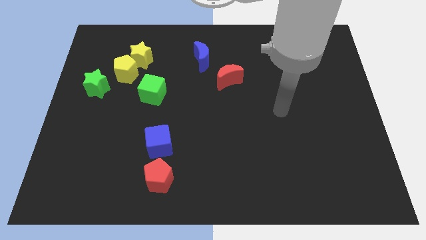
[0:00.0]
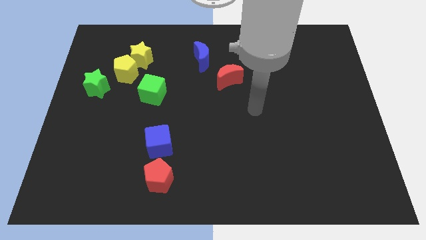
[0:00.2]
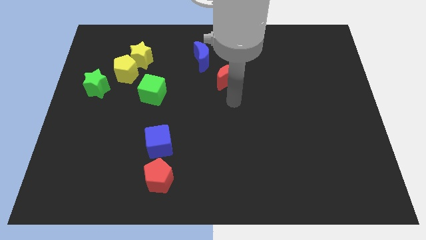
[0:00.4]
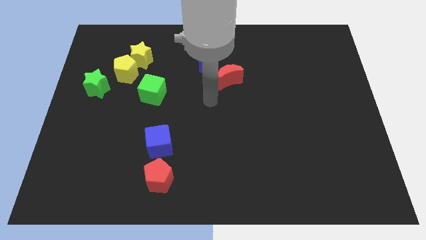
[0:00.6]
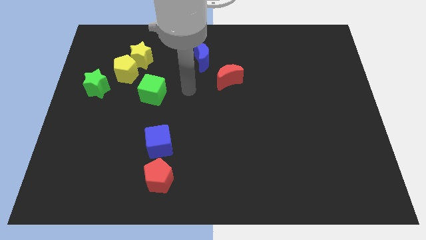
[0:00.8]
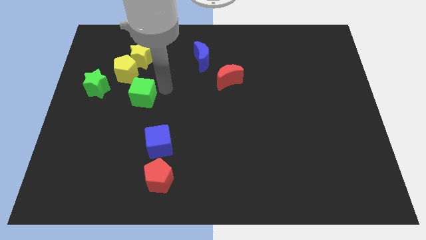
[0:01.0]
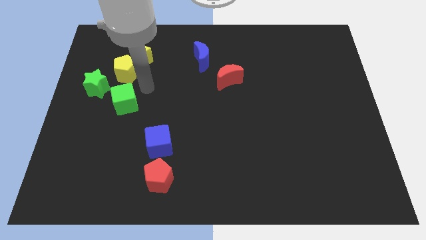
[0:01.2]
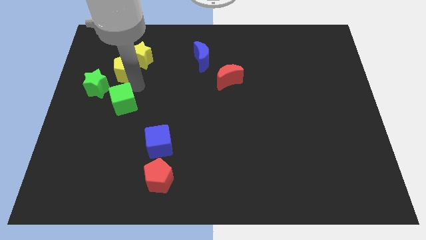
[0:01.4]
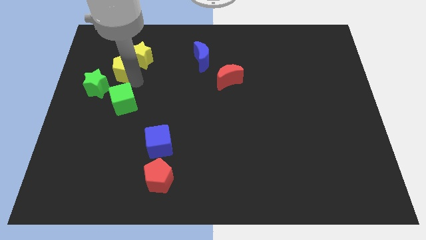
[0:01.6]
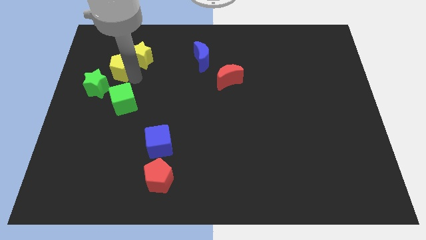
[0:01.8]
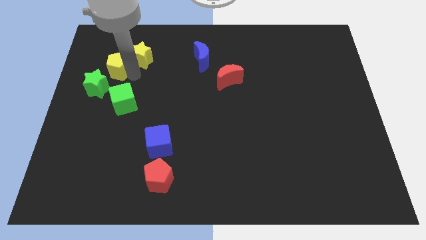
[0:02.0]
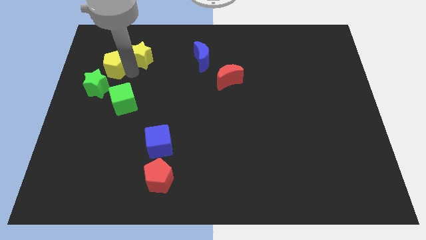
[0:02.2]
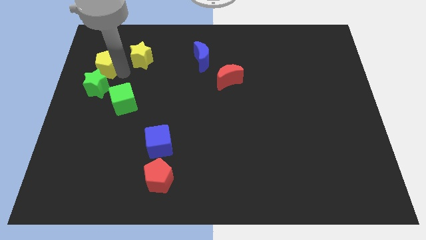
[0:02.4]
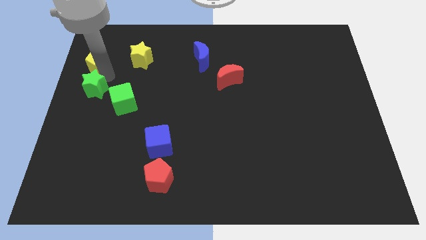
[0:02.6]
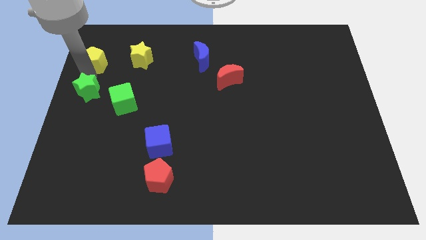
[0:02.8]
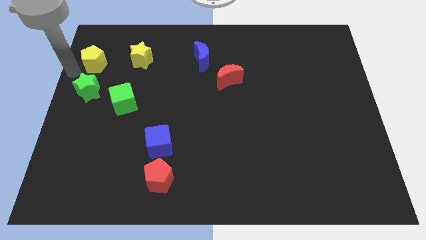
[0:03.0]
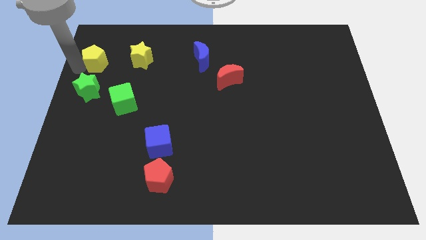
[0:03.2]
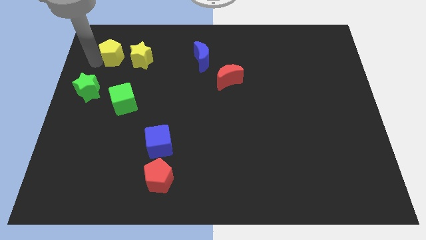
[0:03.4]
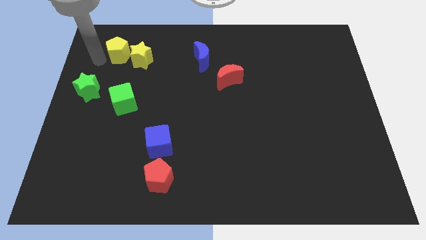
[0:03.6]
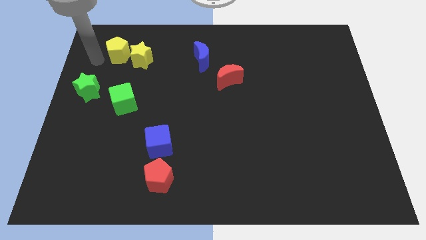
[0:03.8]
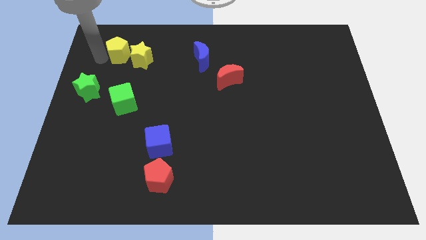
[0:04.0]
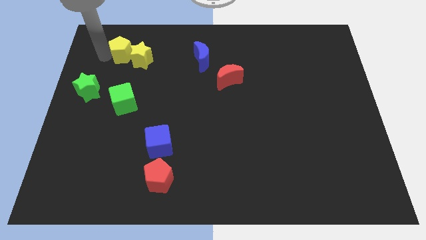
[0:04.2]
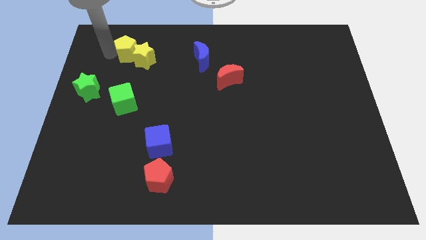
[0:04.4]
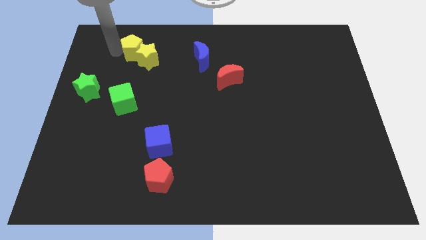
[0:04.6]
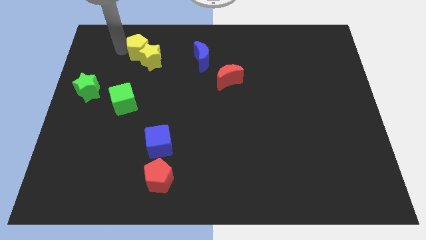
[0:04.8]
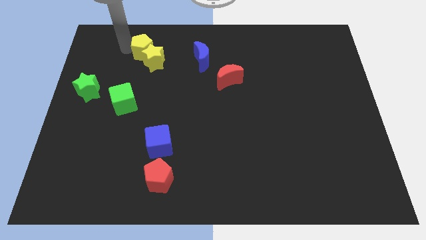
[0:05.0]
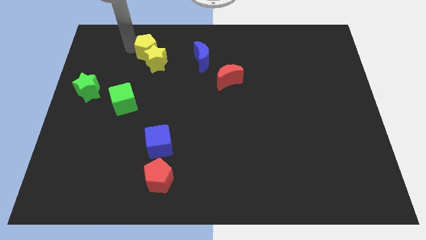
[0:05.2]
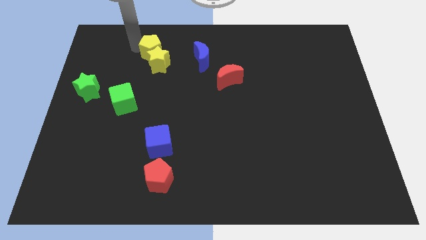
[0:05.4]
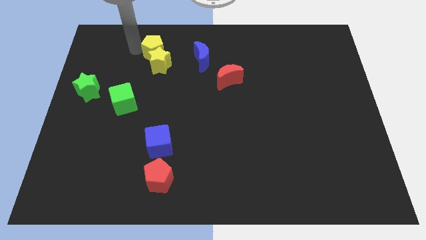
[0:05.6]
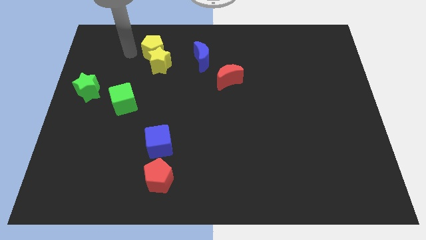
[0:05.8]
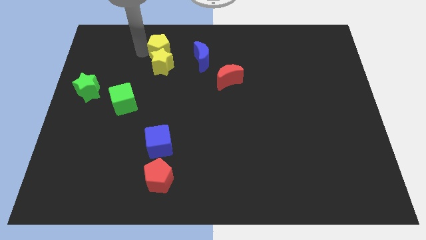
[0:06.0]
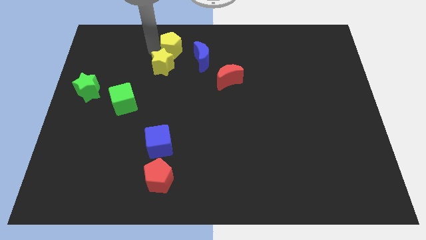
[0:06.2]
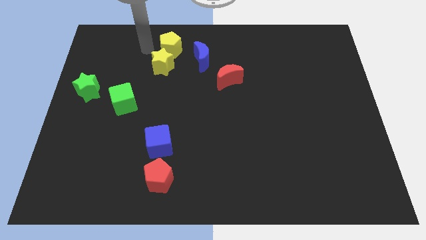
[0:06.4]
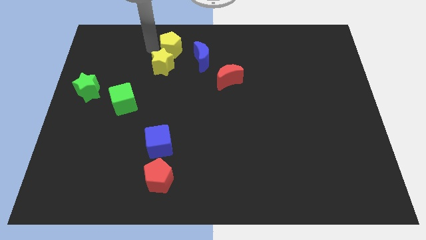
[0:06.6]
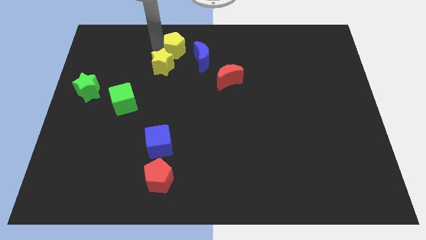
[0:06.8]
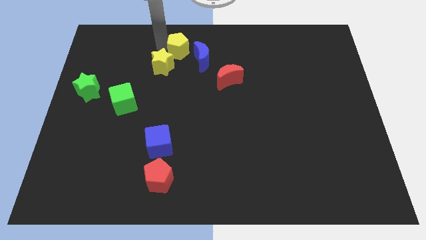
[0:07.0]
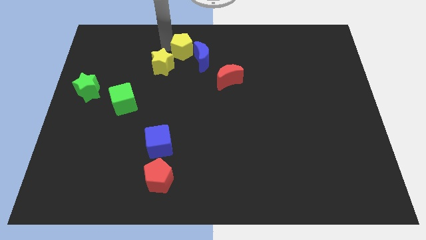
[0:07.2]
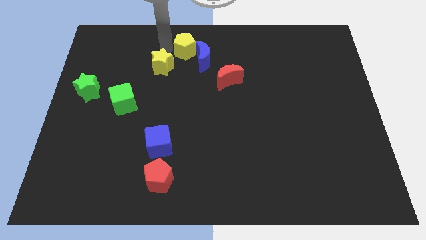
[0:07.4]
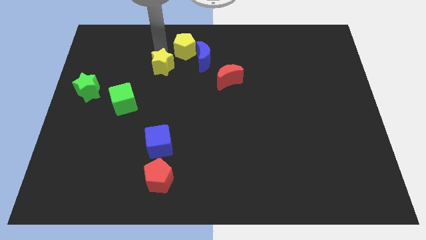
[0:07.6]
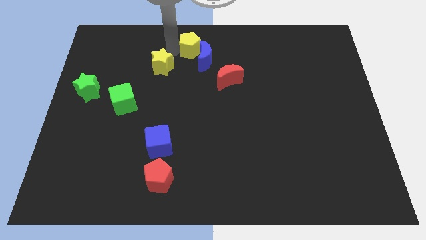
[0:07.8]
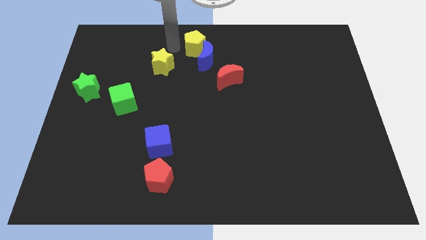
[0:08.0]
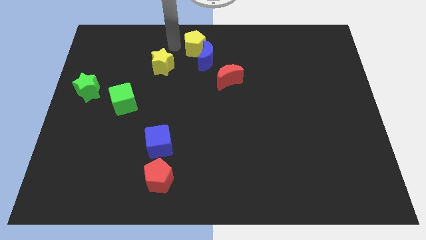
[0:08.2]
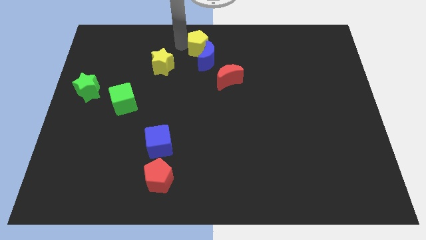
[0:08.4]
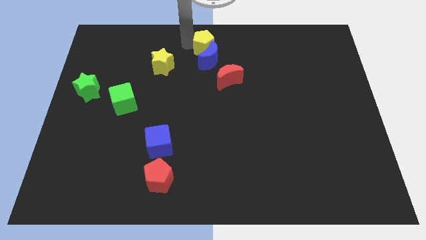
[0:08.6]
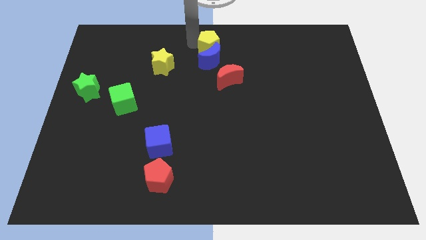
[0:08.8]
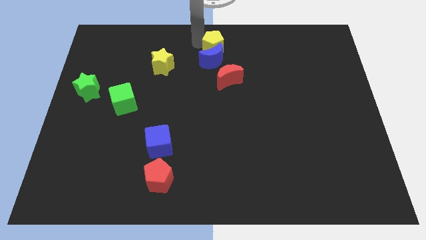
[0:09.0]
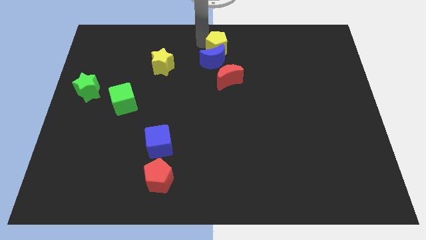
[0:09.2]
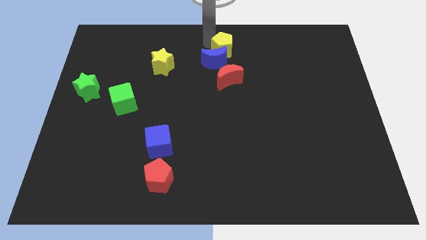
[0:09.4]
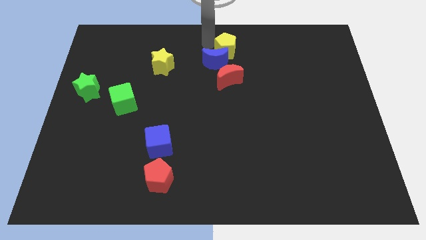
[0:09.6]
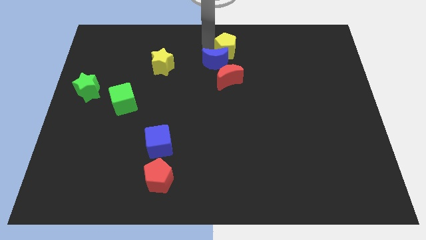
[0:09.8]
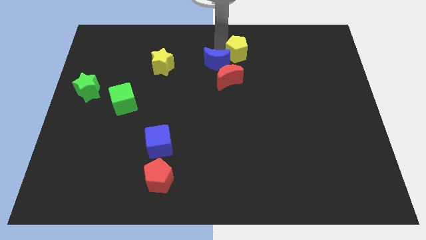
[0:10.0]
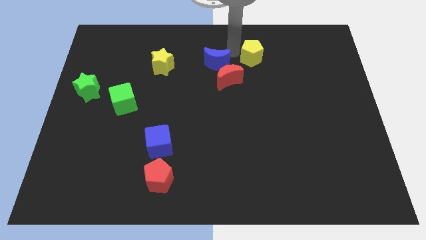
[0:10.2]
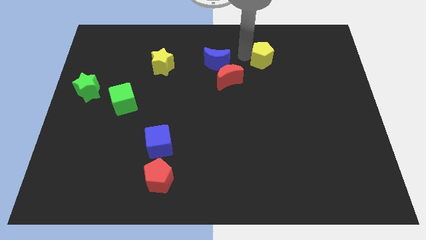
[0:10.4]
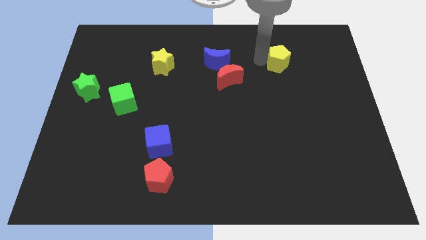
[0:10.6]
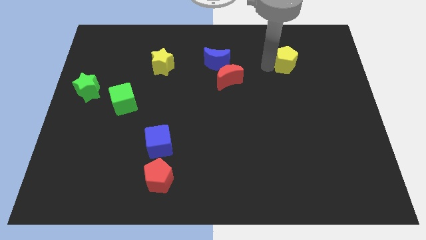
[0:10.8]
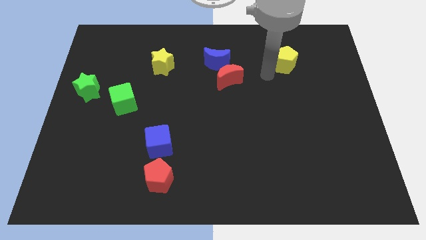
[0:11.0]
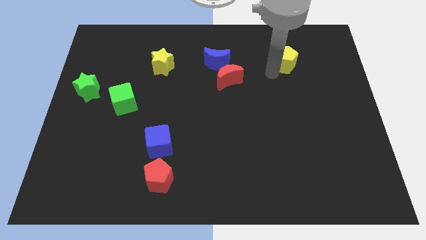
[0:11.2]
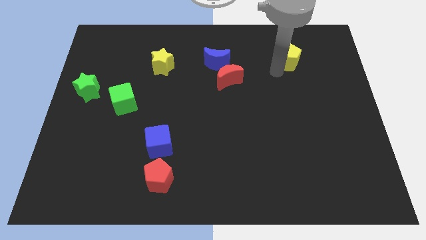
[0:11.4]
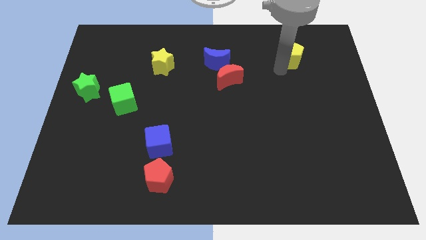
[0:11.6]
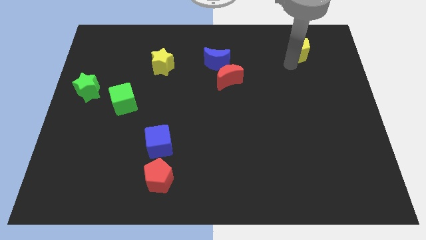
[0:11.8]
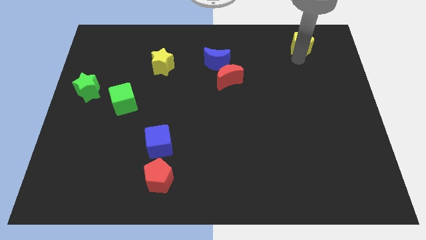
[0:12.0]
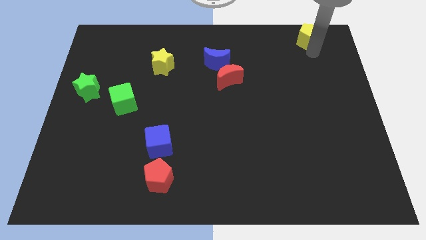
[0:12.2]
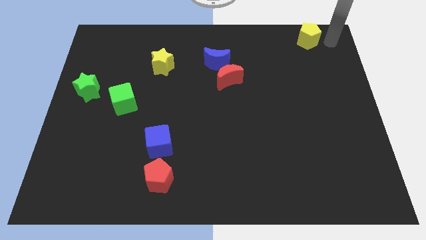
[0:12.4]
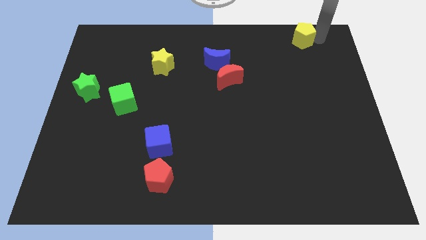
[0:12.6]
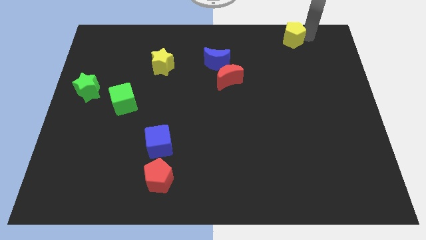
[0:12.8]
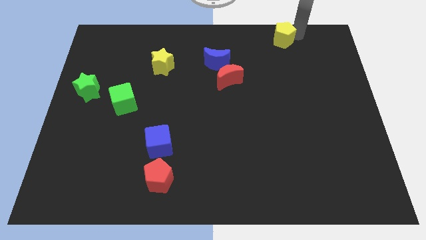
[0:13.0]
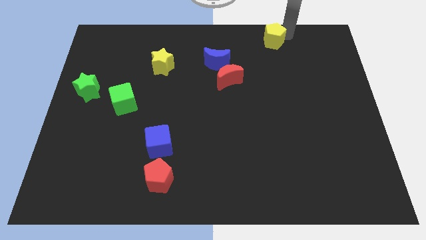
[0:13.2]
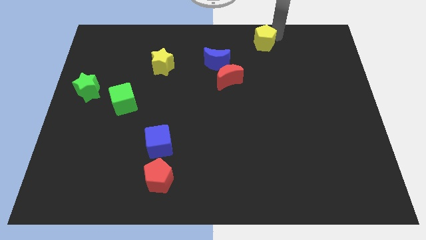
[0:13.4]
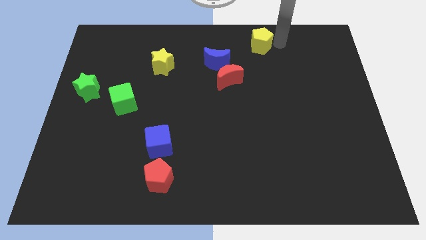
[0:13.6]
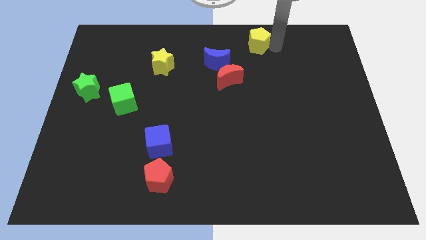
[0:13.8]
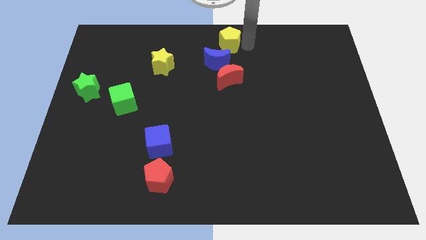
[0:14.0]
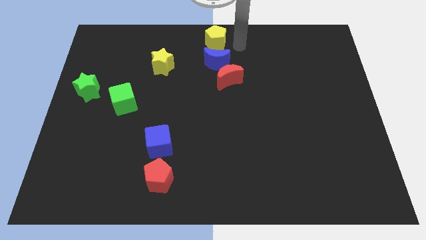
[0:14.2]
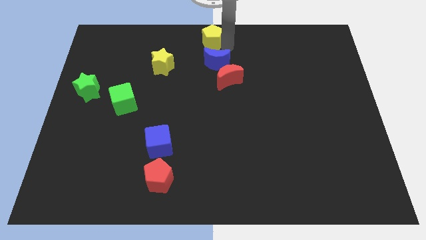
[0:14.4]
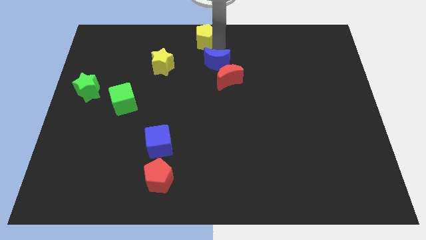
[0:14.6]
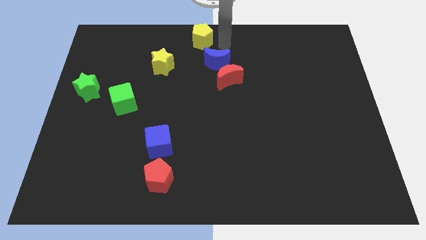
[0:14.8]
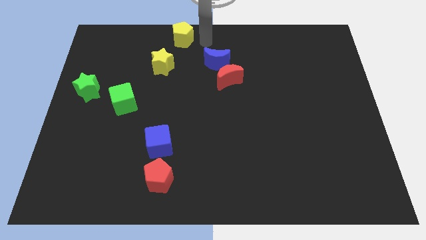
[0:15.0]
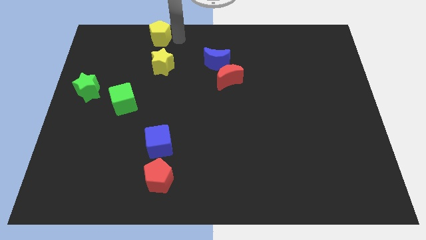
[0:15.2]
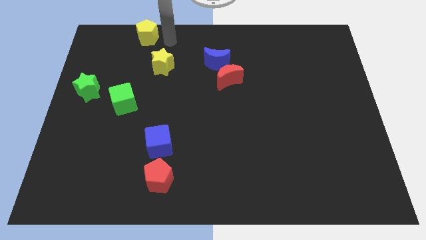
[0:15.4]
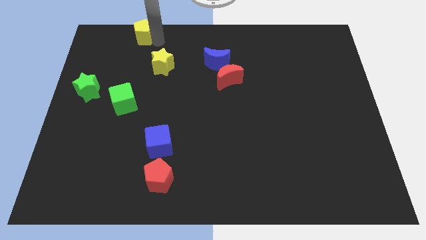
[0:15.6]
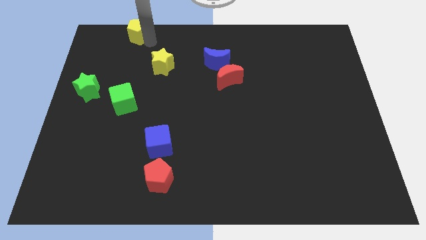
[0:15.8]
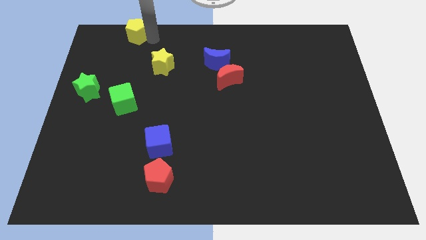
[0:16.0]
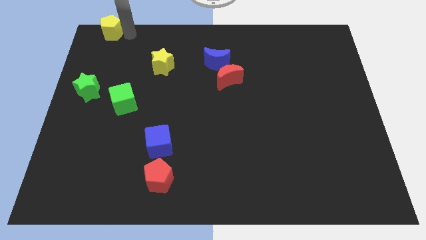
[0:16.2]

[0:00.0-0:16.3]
put the yellow pentagon to the top left
